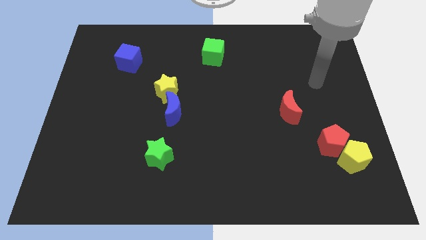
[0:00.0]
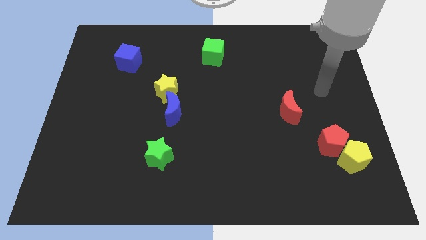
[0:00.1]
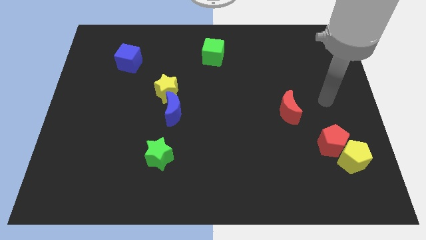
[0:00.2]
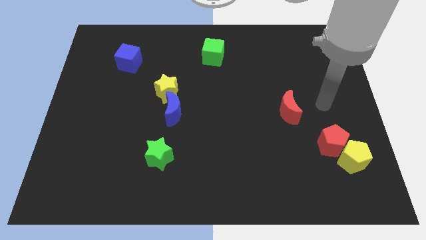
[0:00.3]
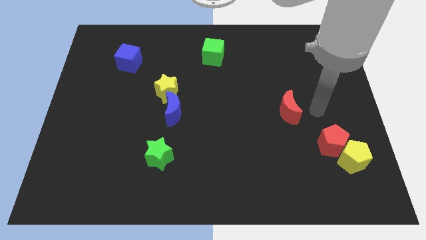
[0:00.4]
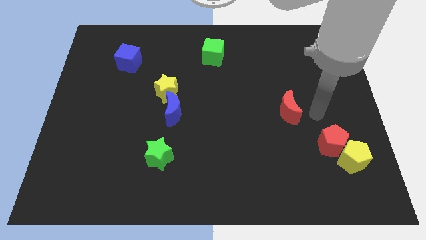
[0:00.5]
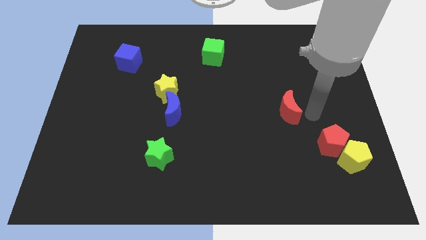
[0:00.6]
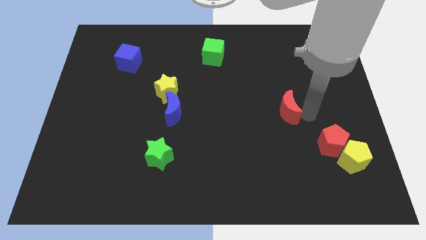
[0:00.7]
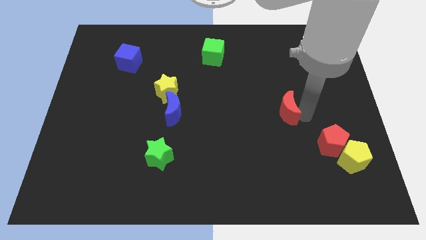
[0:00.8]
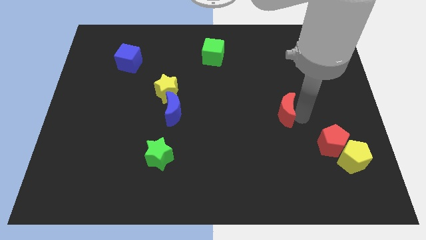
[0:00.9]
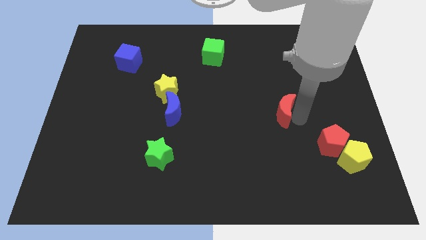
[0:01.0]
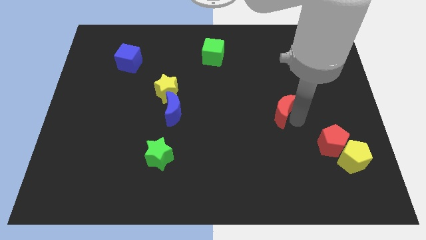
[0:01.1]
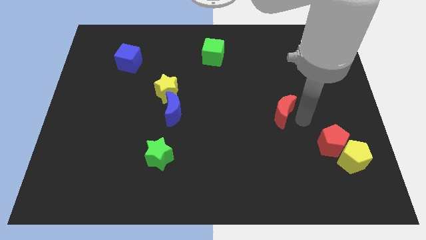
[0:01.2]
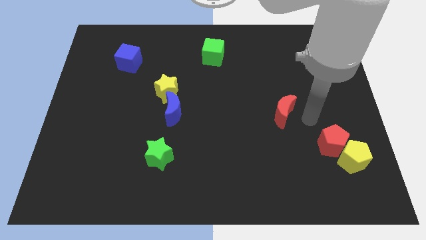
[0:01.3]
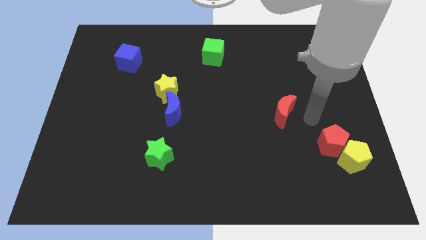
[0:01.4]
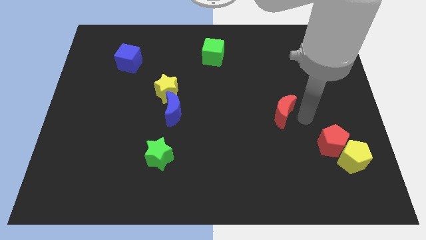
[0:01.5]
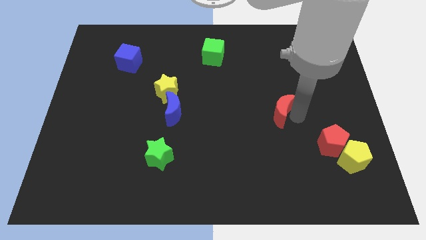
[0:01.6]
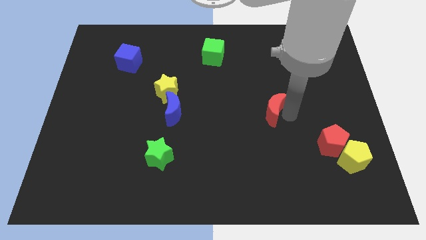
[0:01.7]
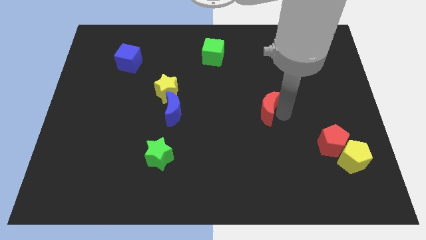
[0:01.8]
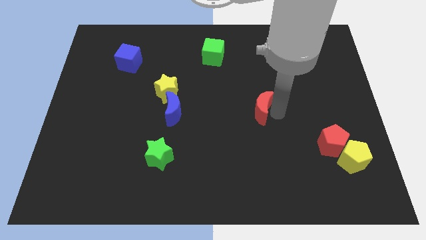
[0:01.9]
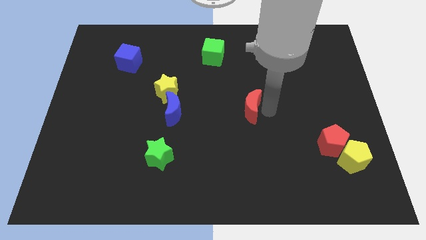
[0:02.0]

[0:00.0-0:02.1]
slide the red moon to the left slightly

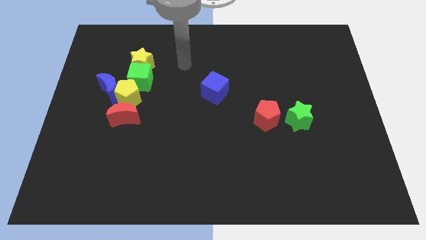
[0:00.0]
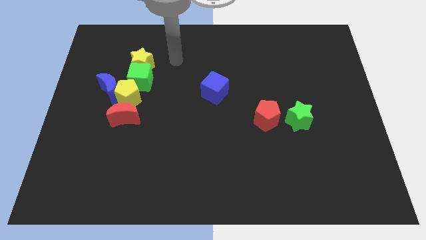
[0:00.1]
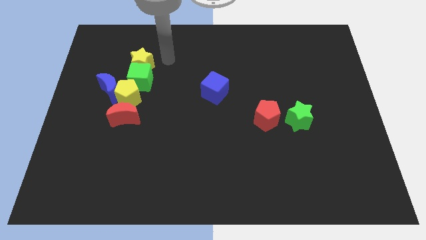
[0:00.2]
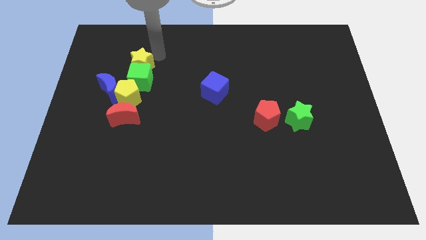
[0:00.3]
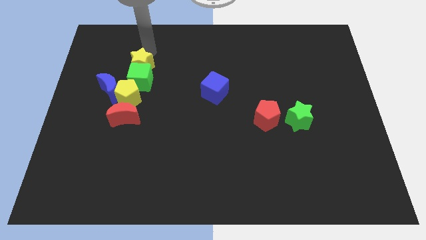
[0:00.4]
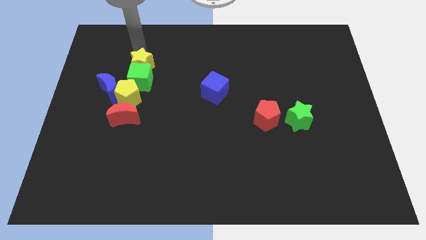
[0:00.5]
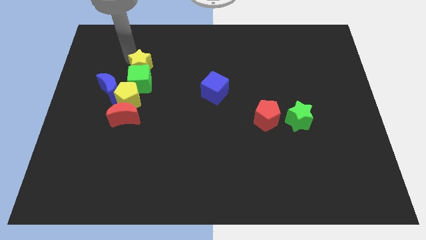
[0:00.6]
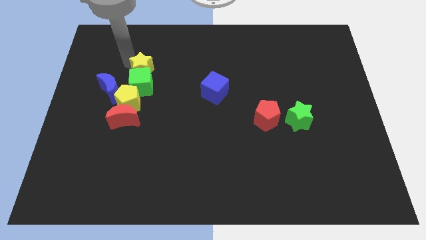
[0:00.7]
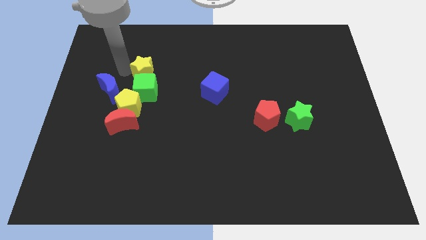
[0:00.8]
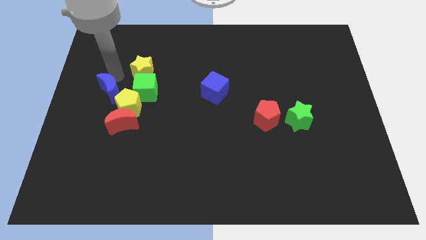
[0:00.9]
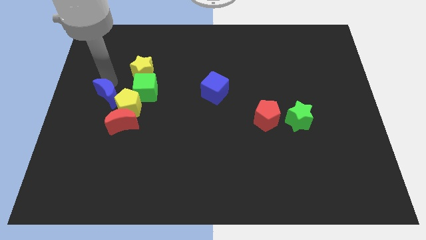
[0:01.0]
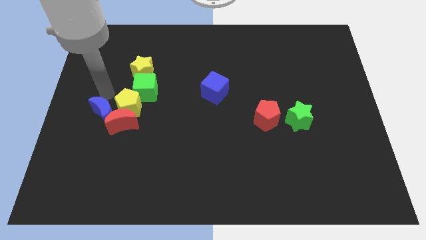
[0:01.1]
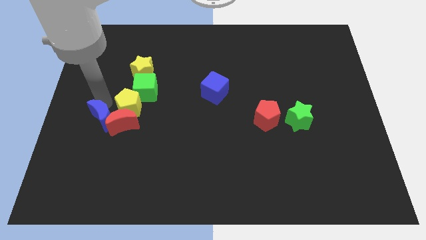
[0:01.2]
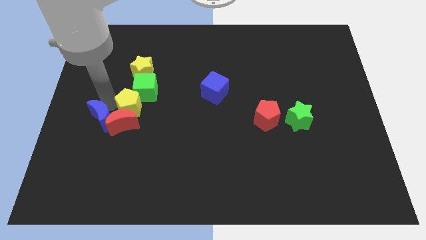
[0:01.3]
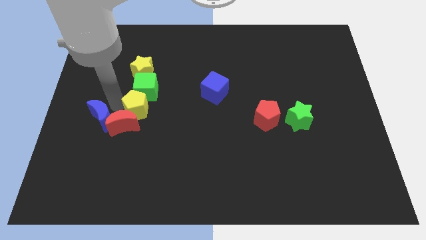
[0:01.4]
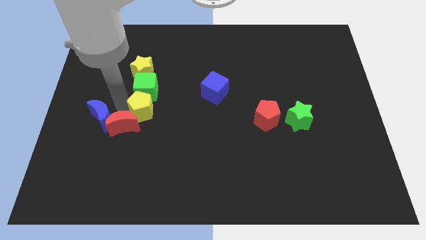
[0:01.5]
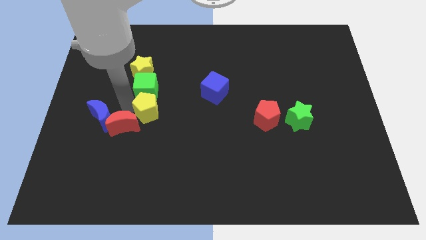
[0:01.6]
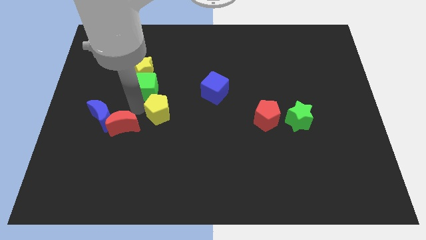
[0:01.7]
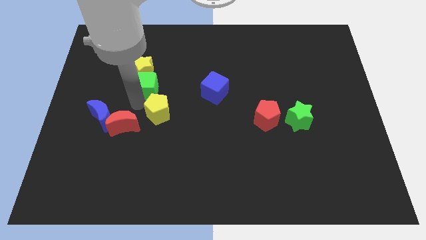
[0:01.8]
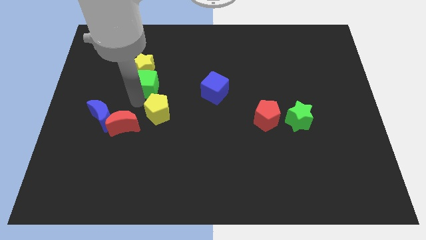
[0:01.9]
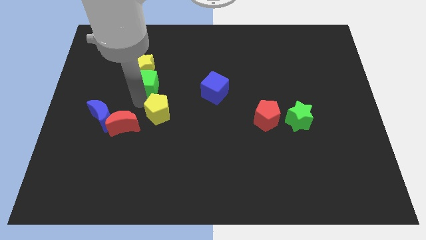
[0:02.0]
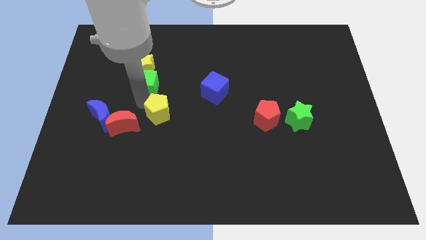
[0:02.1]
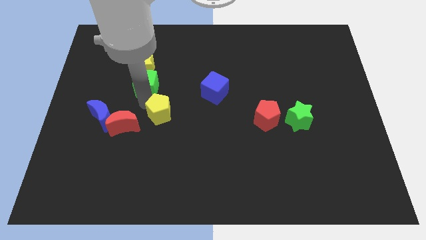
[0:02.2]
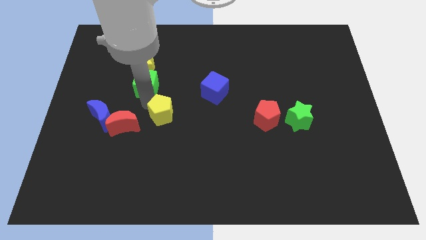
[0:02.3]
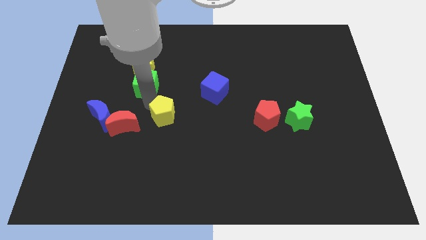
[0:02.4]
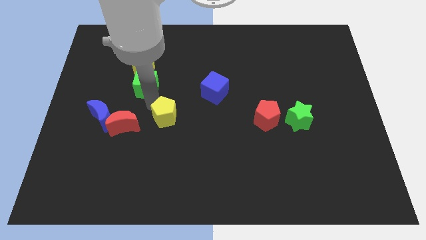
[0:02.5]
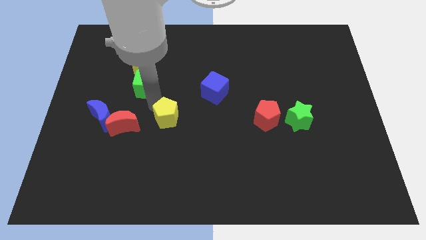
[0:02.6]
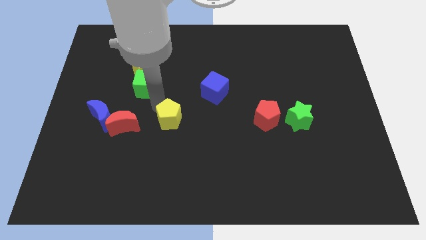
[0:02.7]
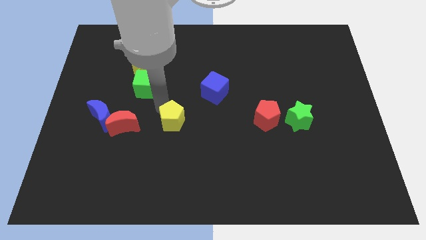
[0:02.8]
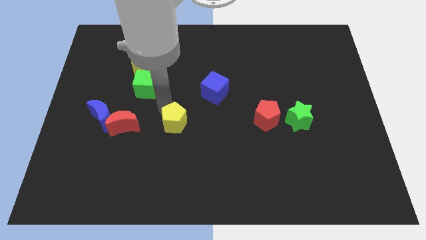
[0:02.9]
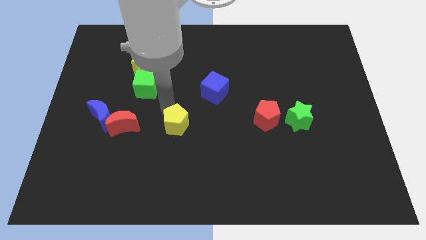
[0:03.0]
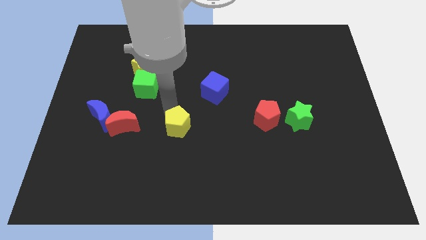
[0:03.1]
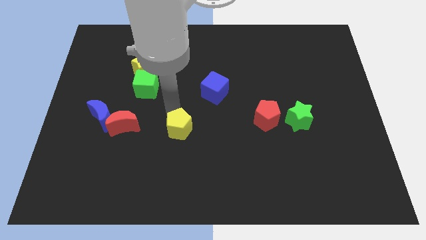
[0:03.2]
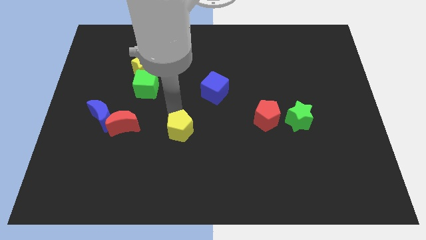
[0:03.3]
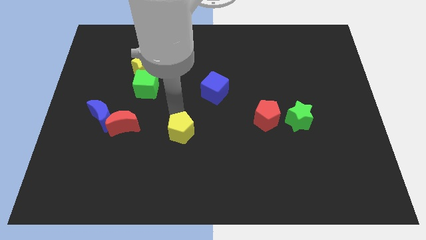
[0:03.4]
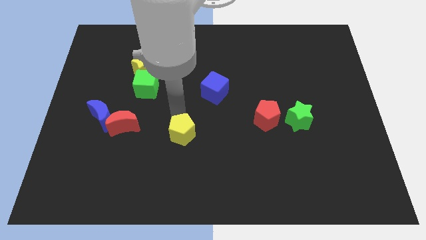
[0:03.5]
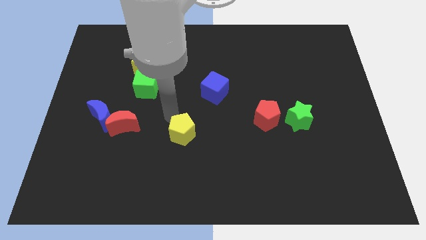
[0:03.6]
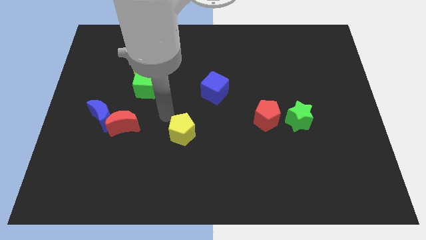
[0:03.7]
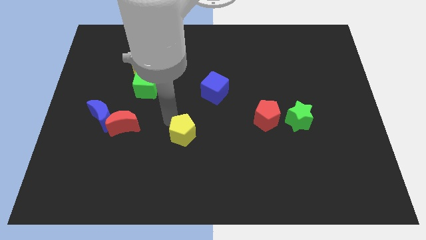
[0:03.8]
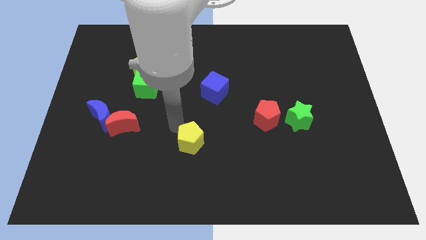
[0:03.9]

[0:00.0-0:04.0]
push the yellow pentagon downwards and then right

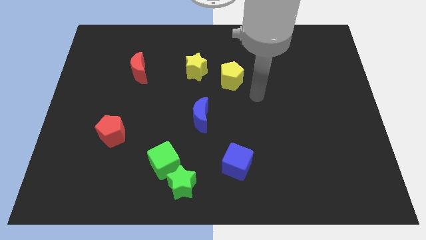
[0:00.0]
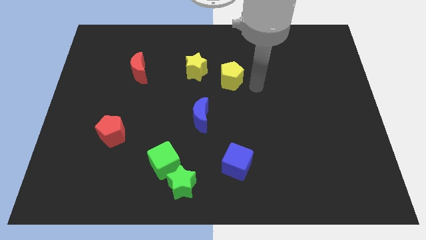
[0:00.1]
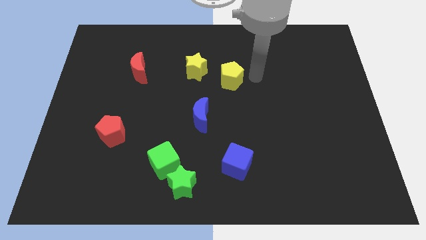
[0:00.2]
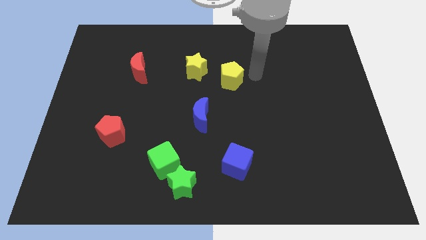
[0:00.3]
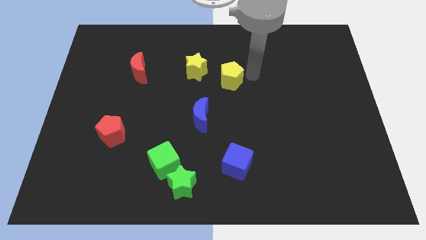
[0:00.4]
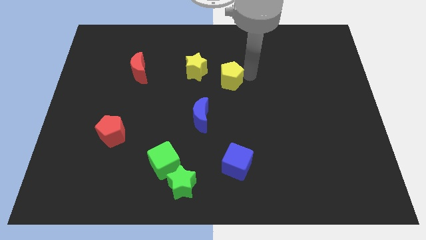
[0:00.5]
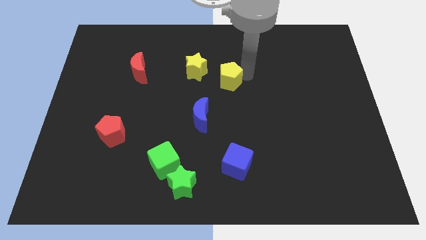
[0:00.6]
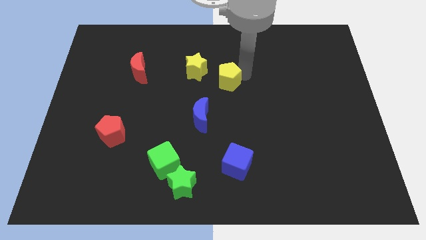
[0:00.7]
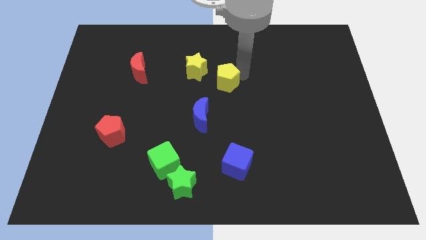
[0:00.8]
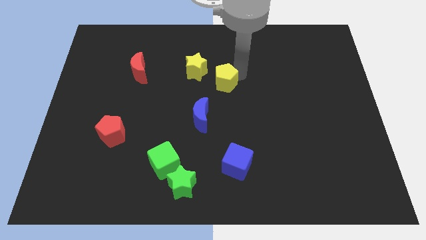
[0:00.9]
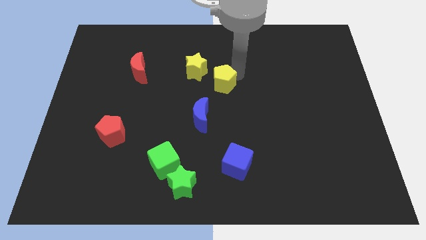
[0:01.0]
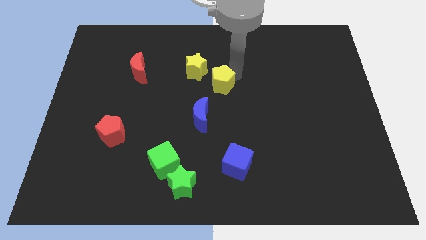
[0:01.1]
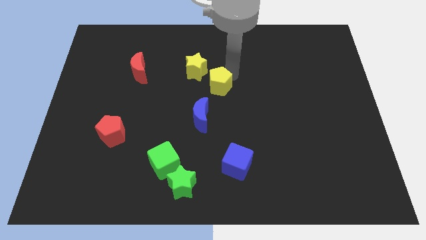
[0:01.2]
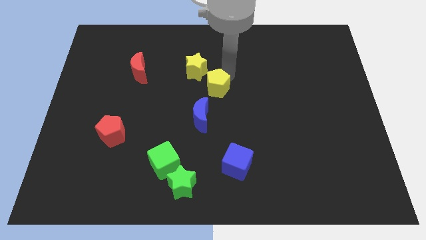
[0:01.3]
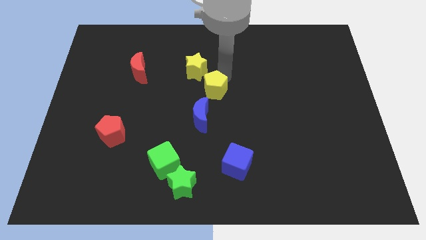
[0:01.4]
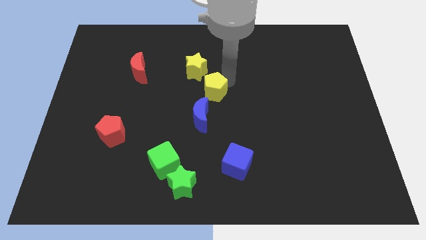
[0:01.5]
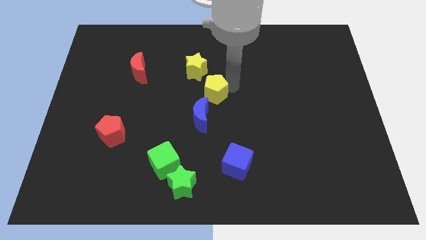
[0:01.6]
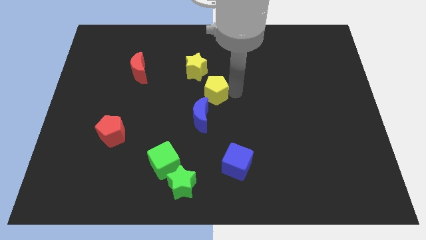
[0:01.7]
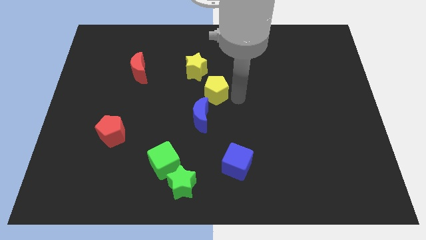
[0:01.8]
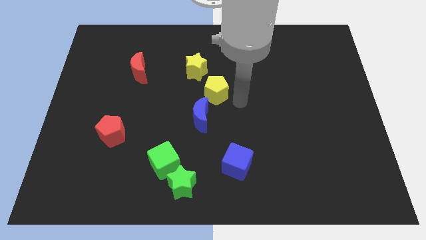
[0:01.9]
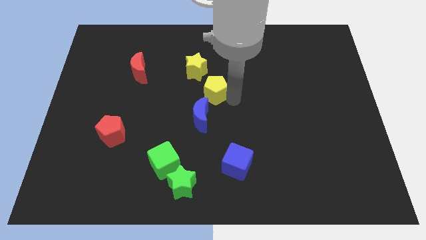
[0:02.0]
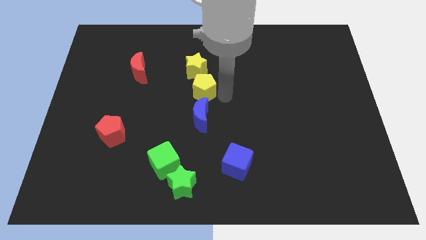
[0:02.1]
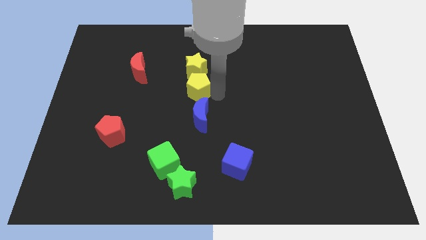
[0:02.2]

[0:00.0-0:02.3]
push the yellow pentagon slightly left
